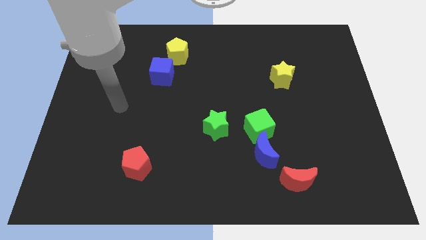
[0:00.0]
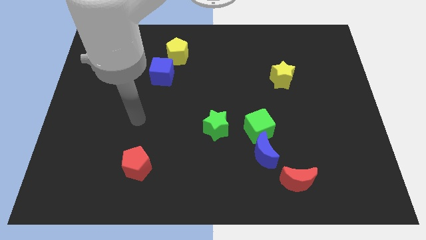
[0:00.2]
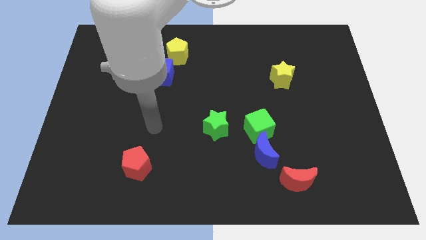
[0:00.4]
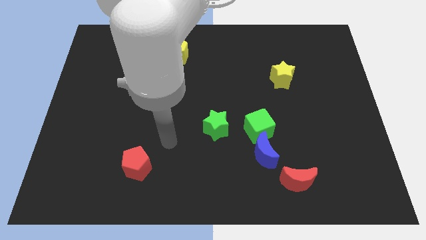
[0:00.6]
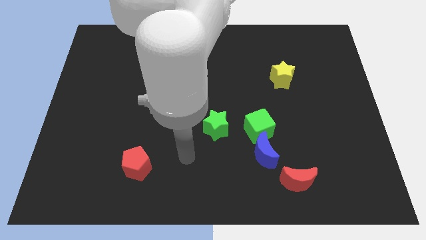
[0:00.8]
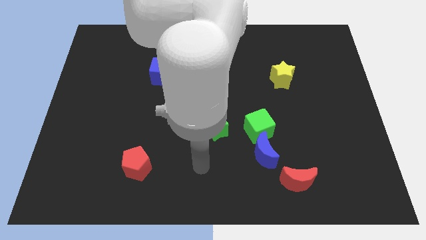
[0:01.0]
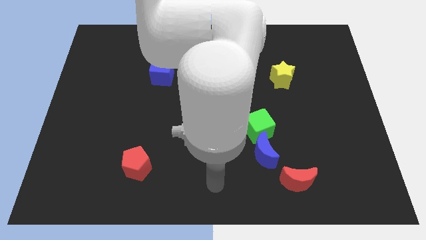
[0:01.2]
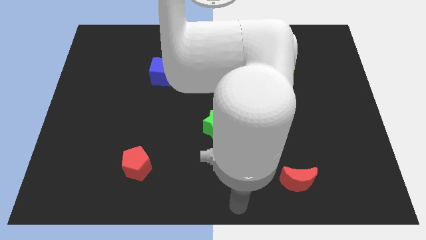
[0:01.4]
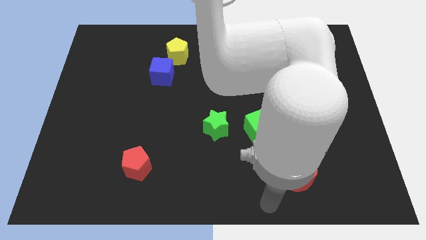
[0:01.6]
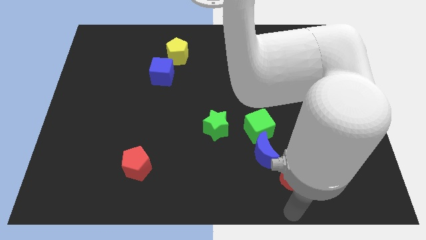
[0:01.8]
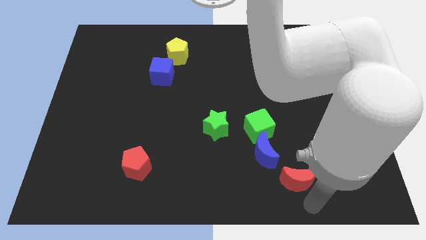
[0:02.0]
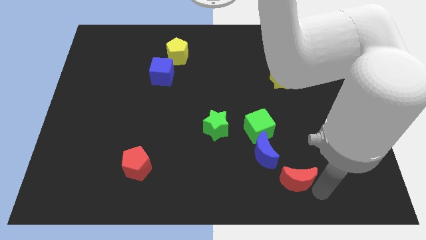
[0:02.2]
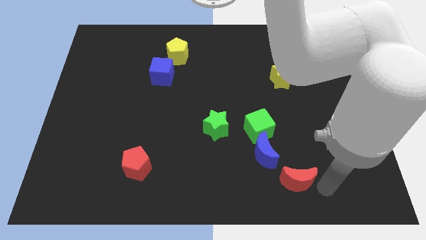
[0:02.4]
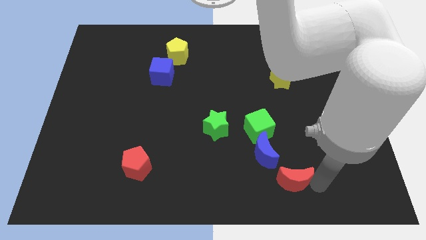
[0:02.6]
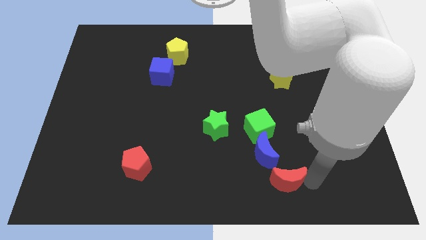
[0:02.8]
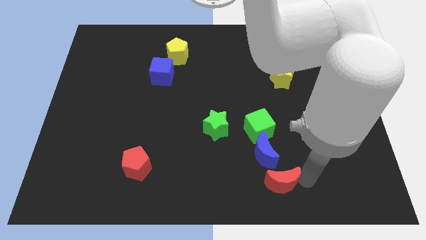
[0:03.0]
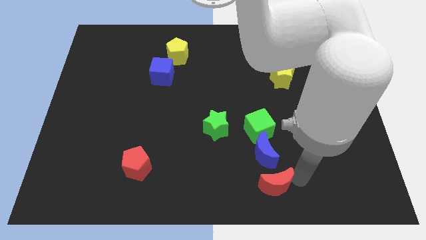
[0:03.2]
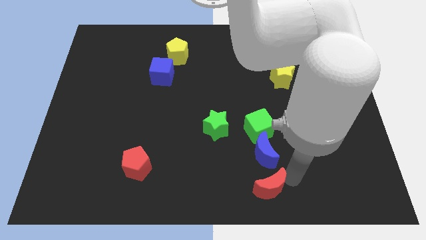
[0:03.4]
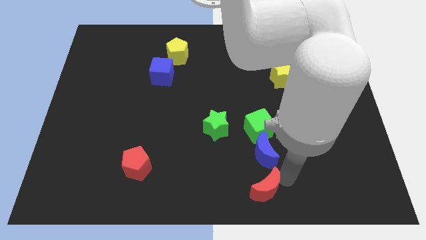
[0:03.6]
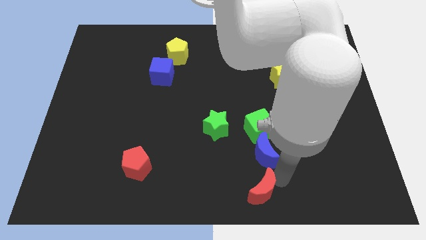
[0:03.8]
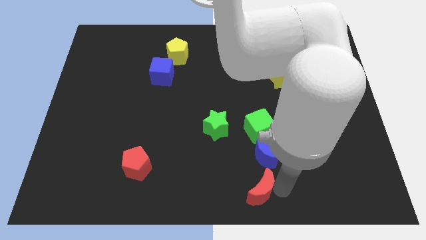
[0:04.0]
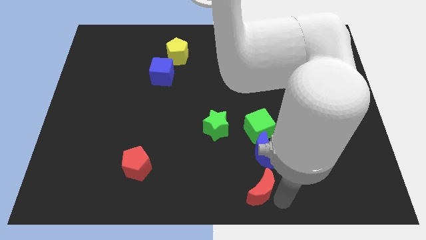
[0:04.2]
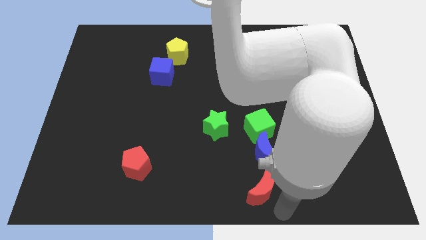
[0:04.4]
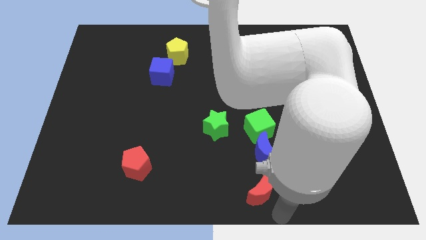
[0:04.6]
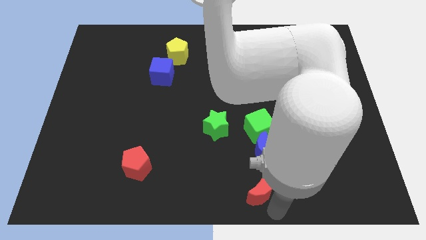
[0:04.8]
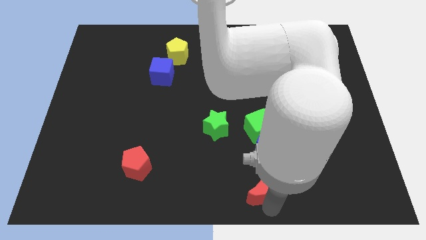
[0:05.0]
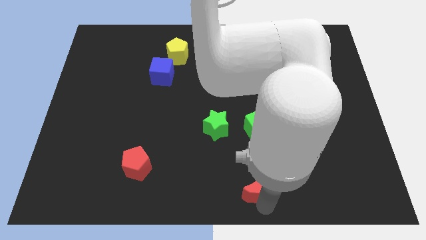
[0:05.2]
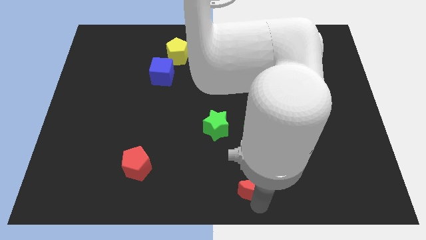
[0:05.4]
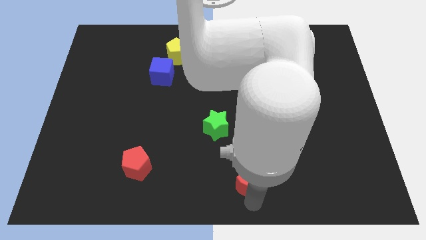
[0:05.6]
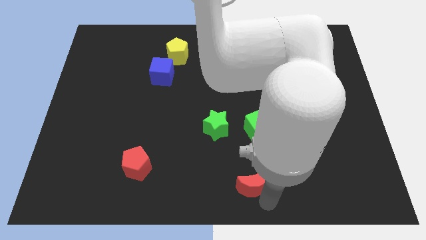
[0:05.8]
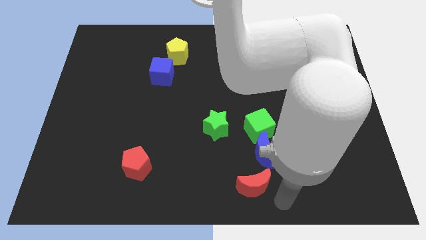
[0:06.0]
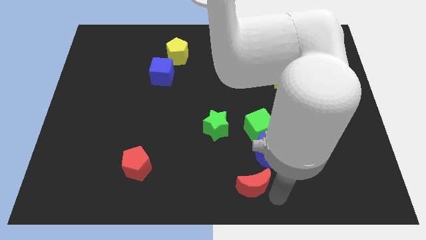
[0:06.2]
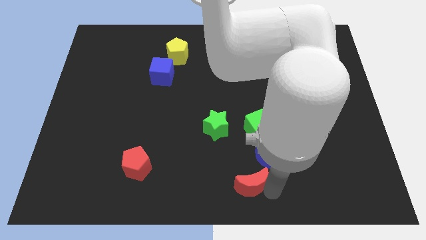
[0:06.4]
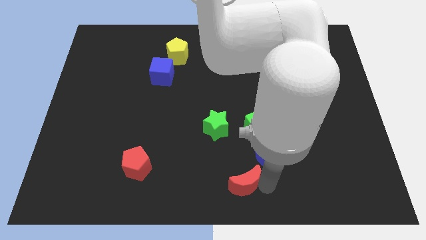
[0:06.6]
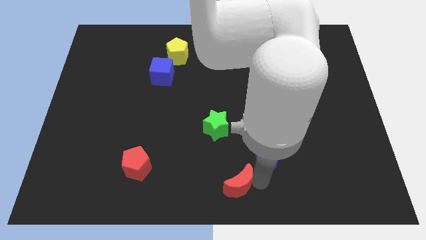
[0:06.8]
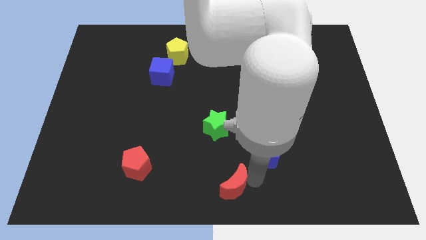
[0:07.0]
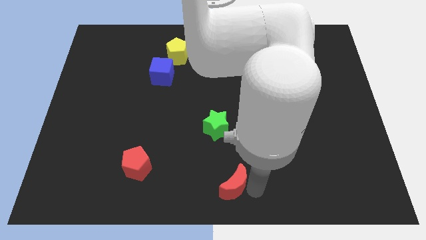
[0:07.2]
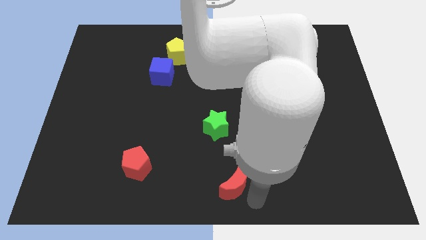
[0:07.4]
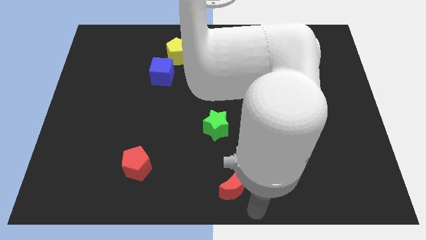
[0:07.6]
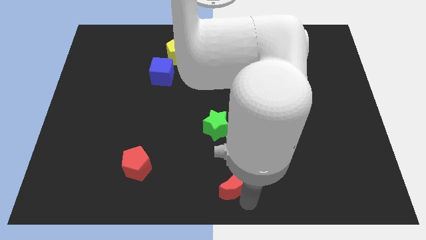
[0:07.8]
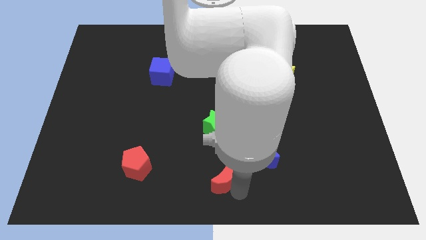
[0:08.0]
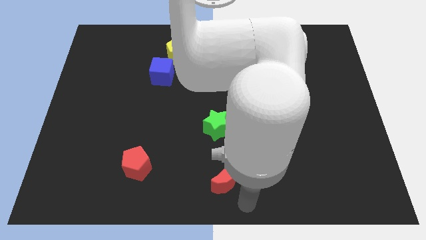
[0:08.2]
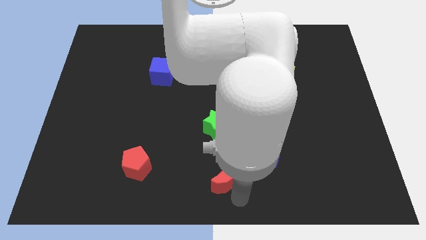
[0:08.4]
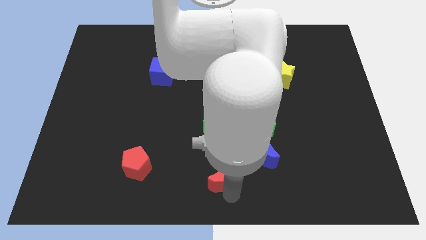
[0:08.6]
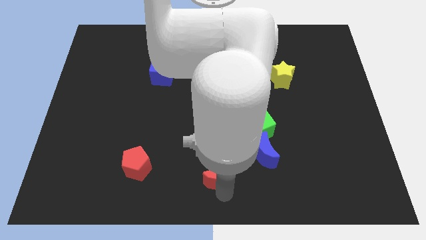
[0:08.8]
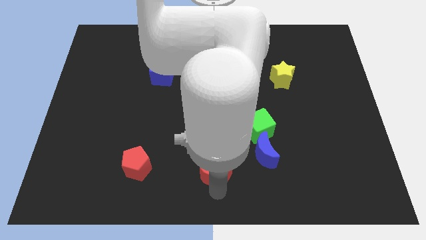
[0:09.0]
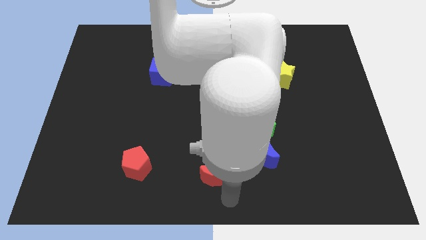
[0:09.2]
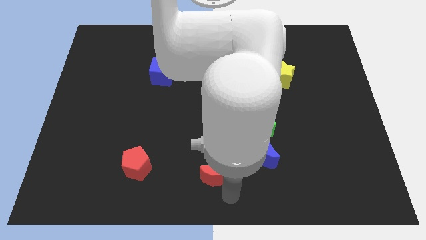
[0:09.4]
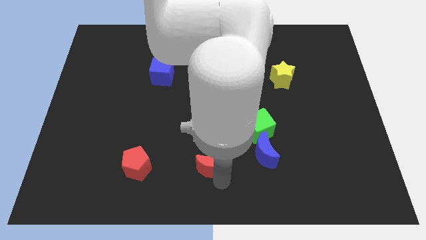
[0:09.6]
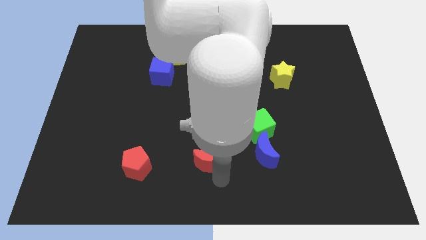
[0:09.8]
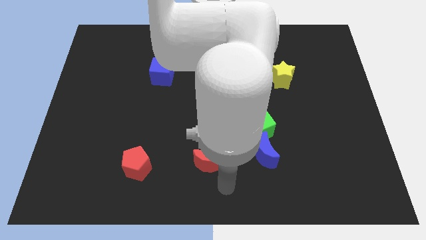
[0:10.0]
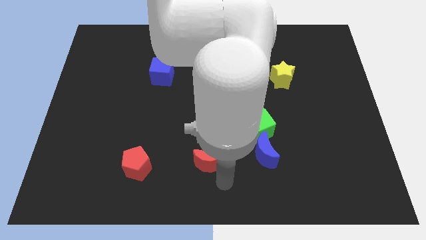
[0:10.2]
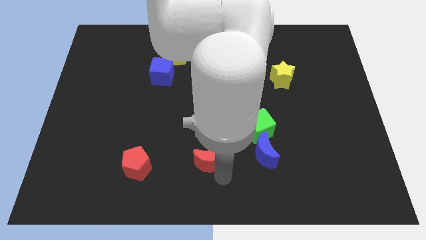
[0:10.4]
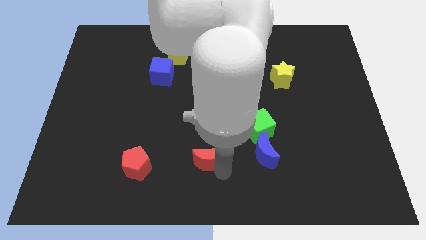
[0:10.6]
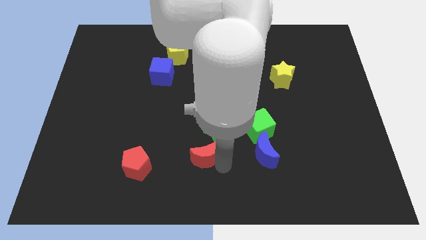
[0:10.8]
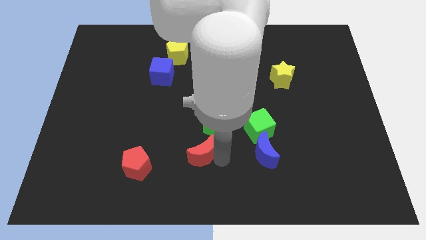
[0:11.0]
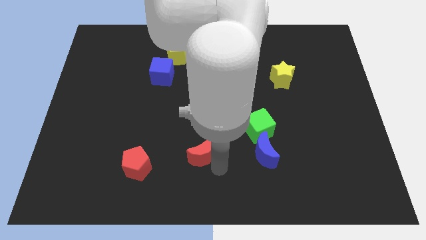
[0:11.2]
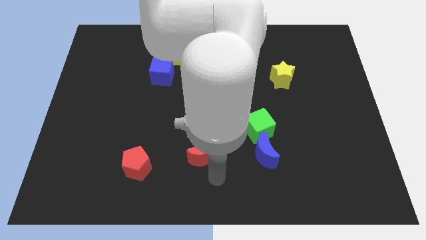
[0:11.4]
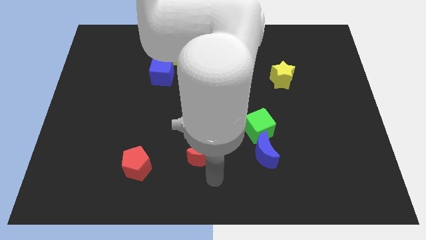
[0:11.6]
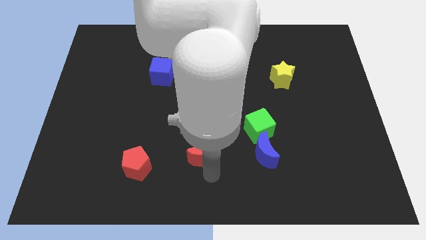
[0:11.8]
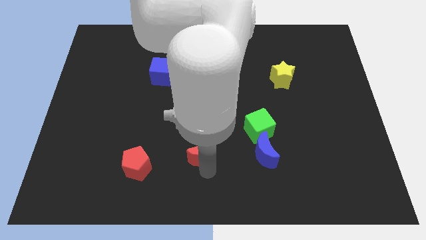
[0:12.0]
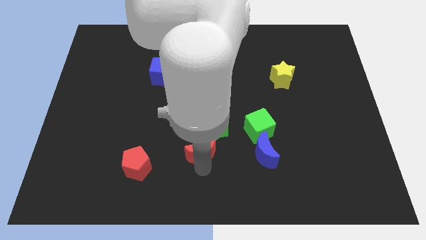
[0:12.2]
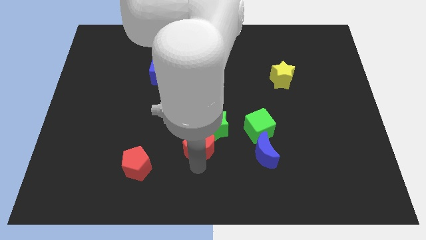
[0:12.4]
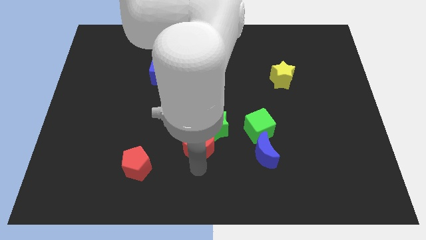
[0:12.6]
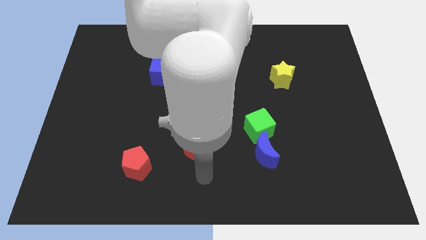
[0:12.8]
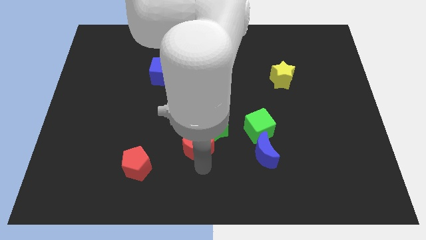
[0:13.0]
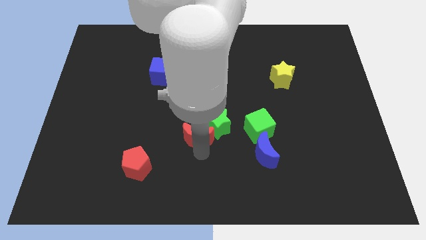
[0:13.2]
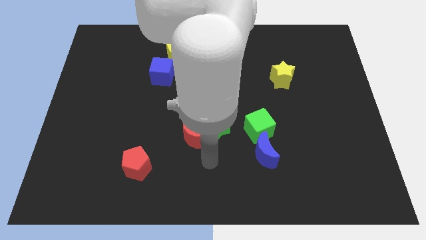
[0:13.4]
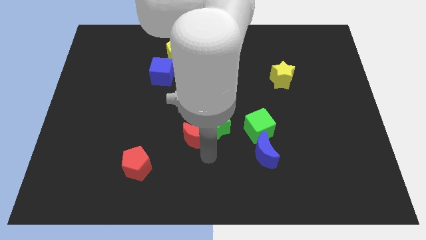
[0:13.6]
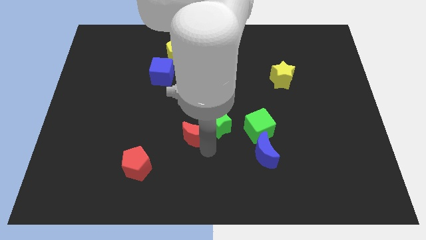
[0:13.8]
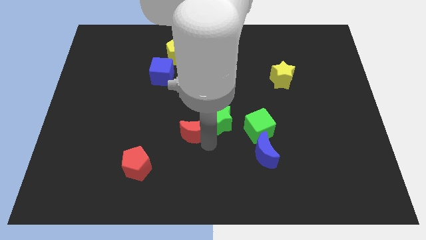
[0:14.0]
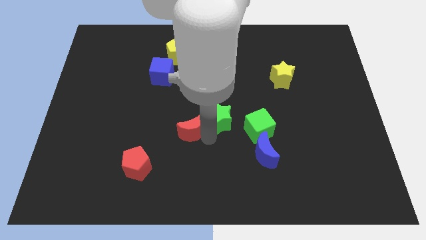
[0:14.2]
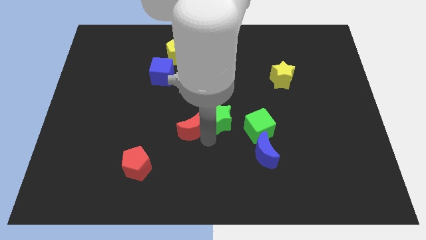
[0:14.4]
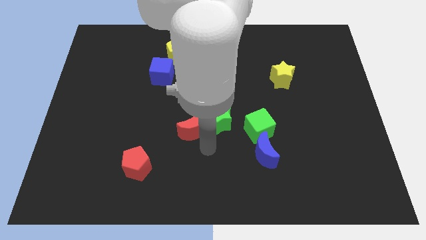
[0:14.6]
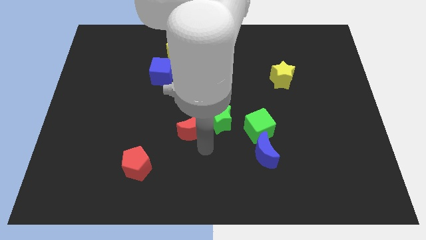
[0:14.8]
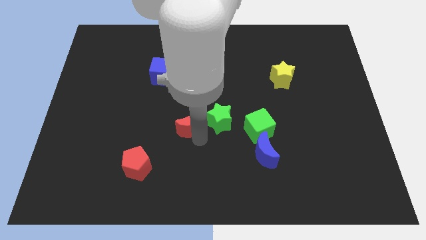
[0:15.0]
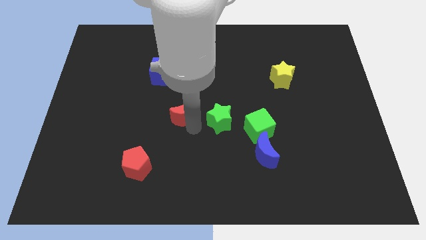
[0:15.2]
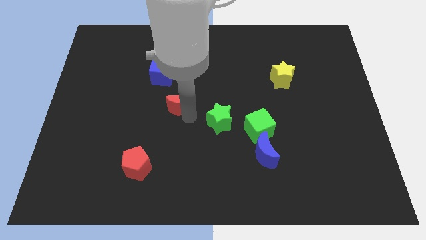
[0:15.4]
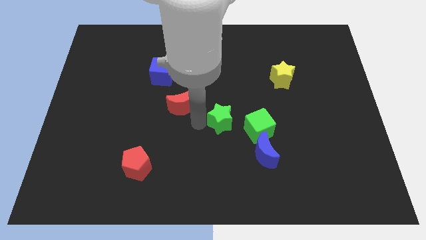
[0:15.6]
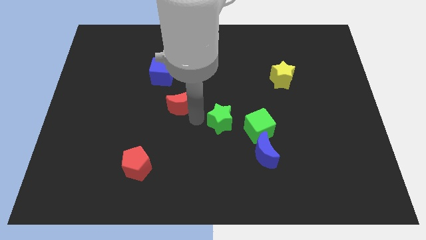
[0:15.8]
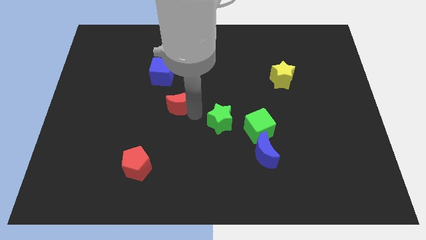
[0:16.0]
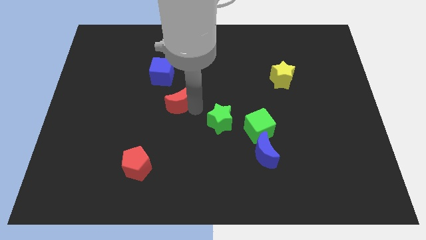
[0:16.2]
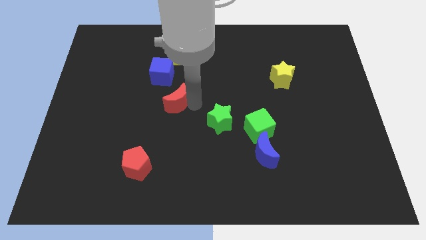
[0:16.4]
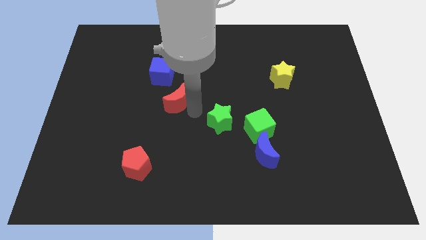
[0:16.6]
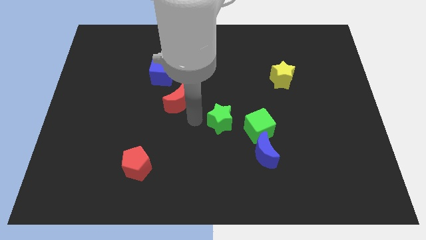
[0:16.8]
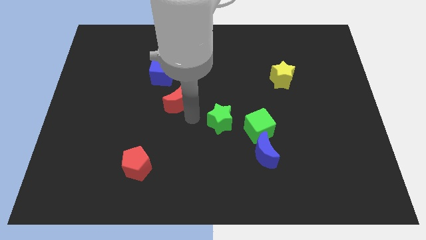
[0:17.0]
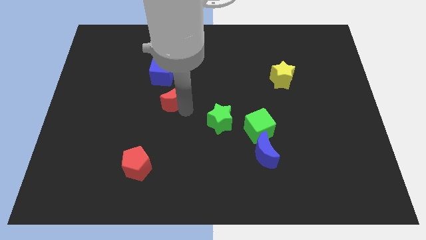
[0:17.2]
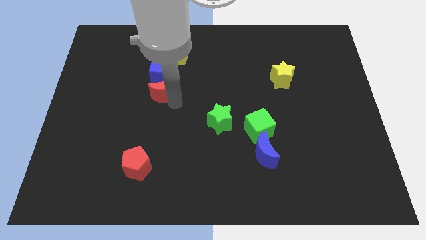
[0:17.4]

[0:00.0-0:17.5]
put the red moon to the blue cube

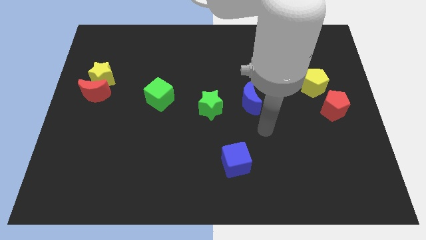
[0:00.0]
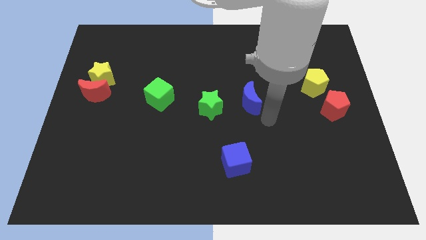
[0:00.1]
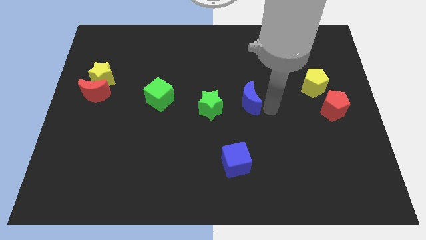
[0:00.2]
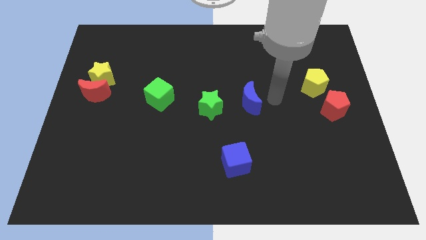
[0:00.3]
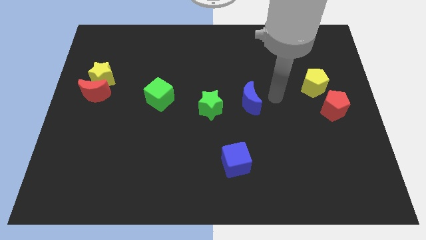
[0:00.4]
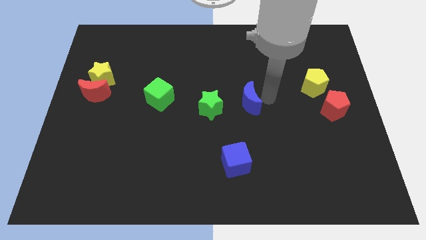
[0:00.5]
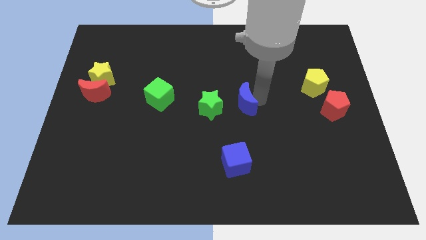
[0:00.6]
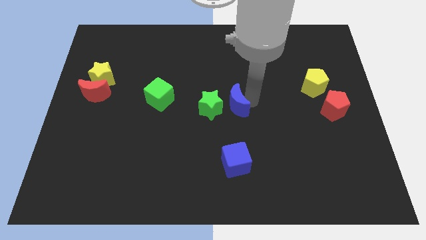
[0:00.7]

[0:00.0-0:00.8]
move the blue moon close to the green star
